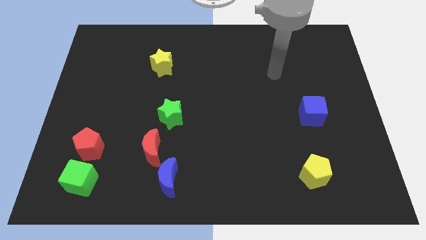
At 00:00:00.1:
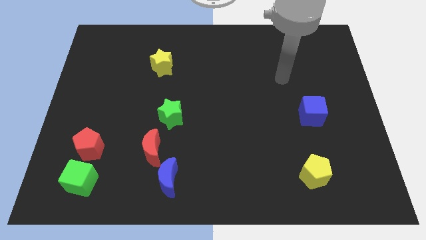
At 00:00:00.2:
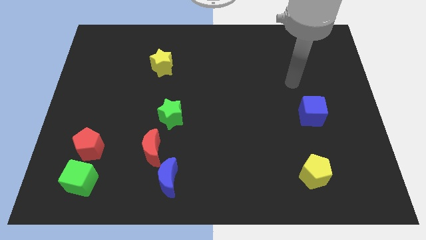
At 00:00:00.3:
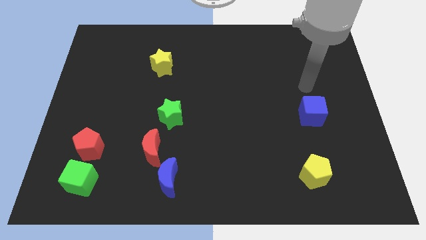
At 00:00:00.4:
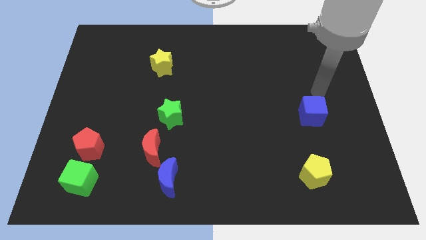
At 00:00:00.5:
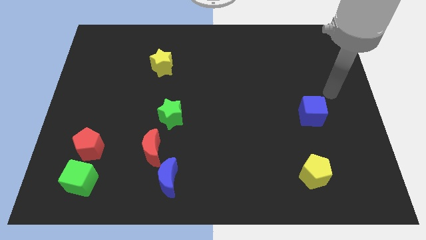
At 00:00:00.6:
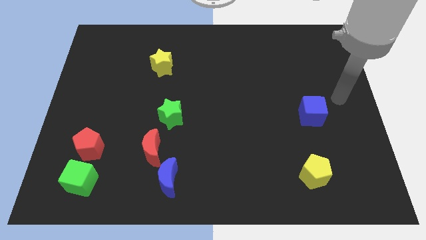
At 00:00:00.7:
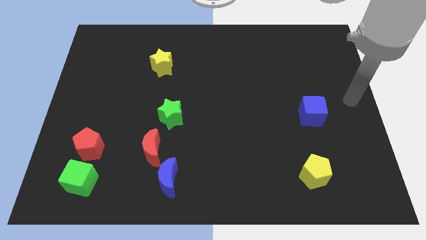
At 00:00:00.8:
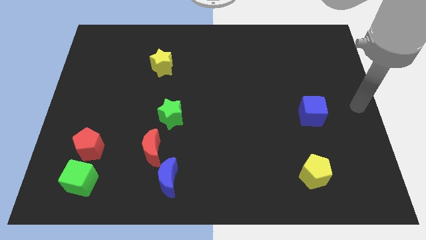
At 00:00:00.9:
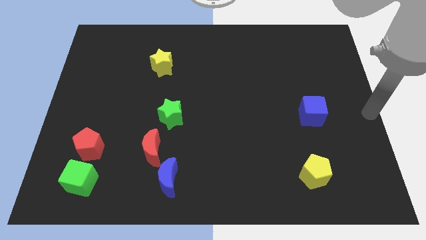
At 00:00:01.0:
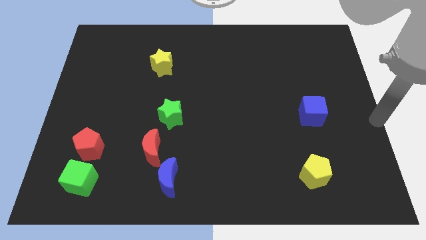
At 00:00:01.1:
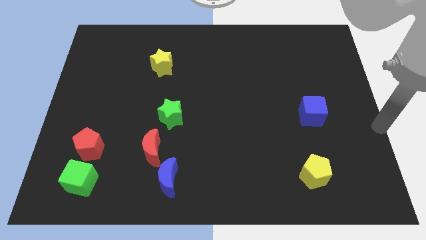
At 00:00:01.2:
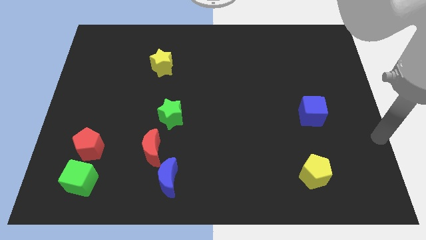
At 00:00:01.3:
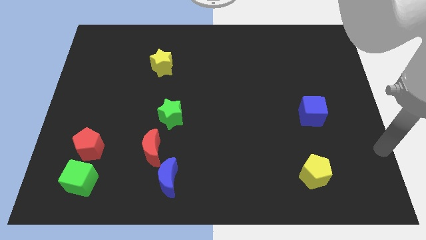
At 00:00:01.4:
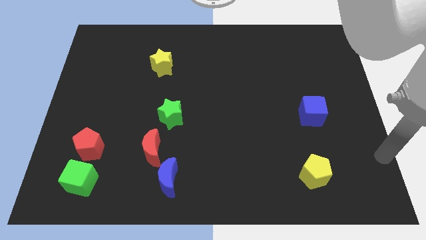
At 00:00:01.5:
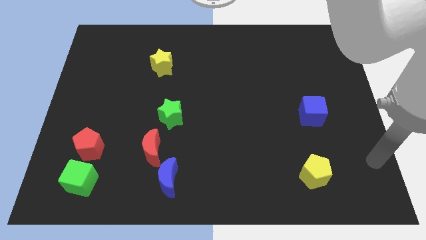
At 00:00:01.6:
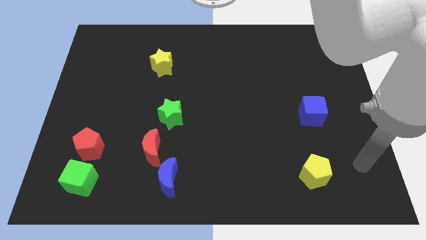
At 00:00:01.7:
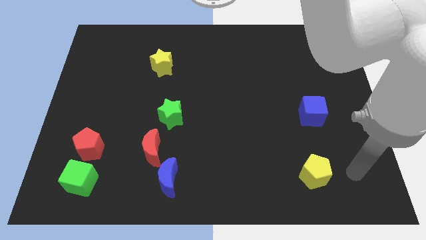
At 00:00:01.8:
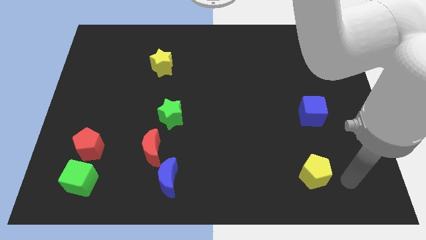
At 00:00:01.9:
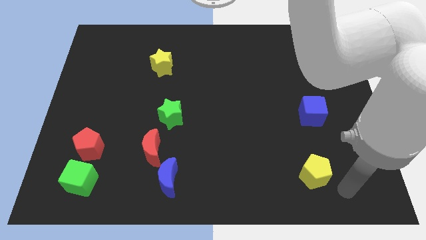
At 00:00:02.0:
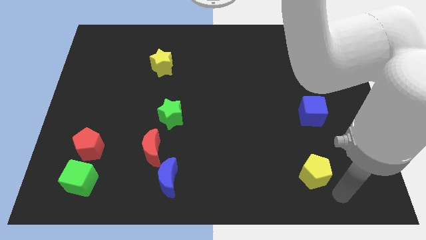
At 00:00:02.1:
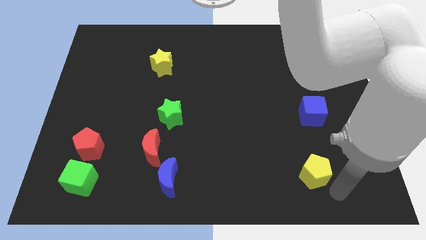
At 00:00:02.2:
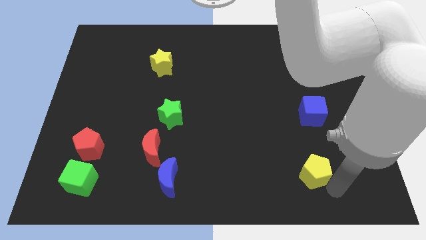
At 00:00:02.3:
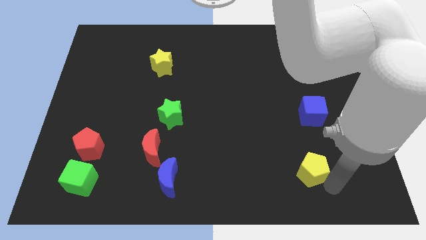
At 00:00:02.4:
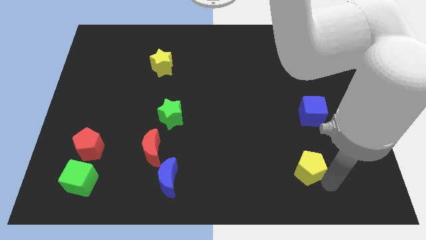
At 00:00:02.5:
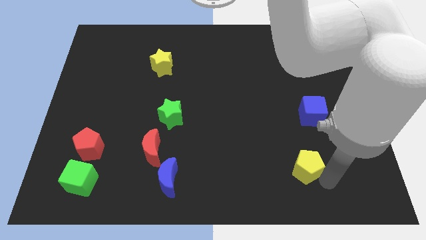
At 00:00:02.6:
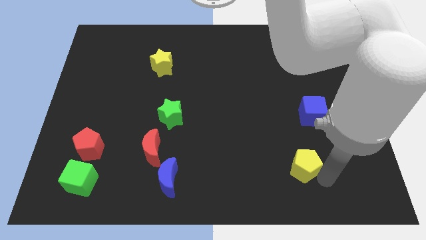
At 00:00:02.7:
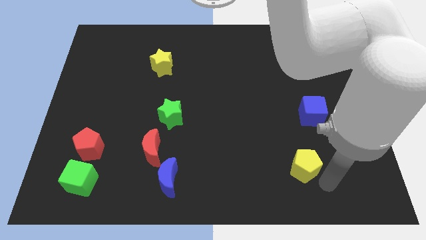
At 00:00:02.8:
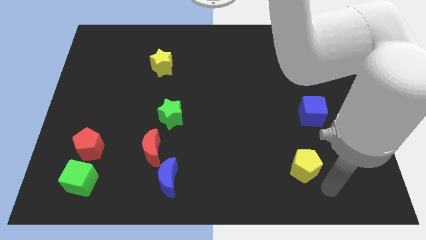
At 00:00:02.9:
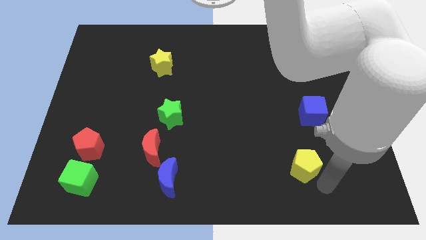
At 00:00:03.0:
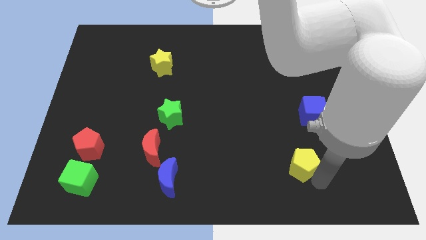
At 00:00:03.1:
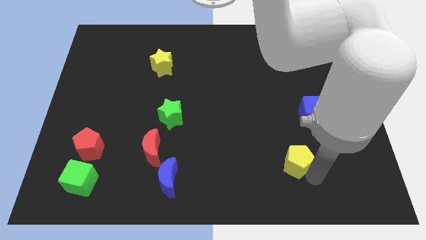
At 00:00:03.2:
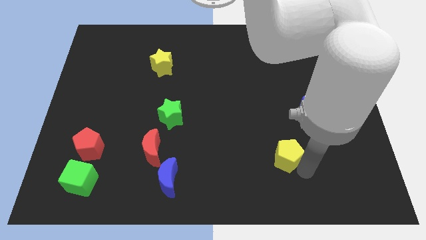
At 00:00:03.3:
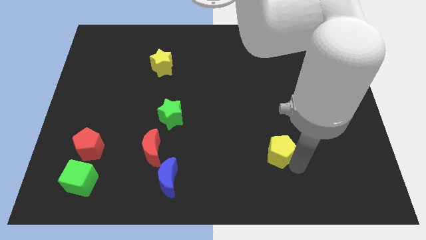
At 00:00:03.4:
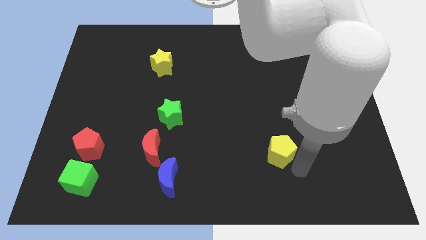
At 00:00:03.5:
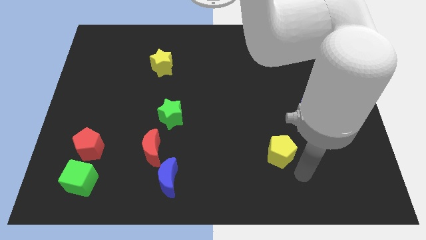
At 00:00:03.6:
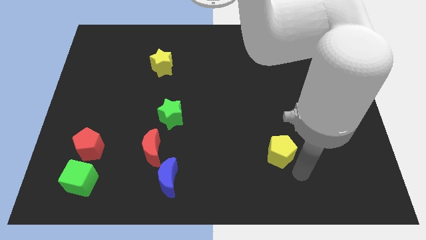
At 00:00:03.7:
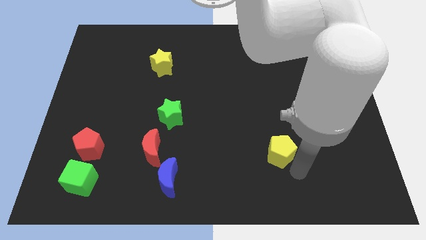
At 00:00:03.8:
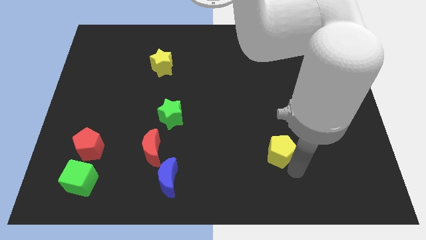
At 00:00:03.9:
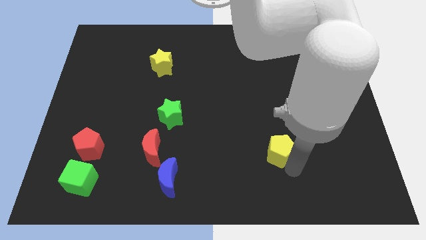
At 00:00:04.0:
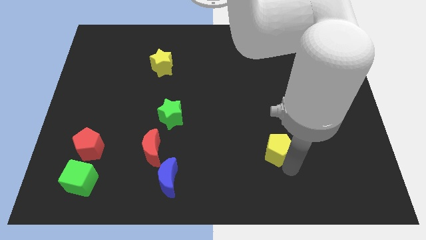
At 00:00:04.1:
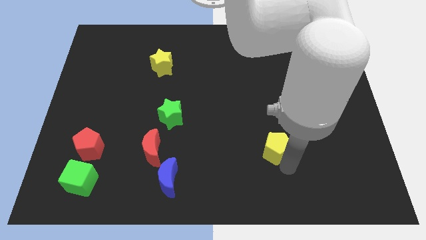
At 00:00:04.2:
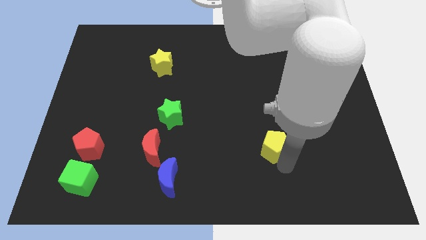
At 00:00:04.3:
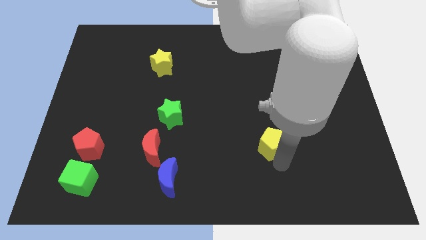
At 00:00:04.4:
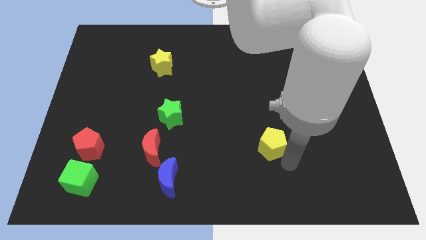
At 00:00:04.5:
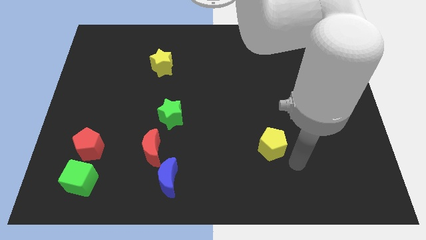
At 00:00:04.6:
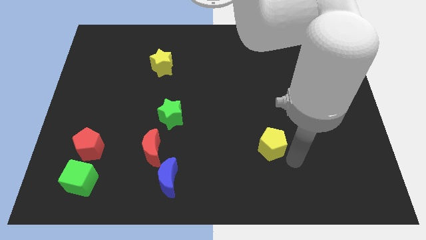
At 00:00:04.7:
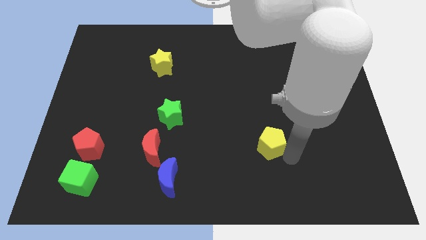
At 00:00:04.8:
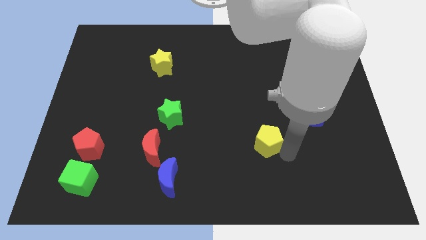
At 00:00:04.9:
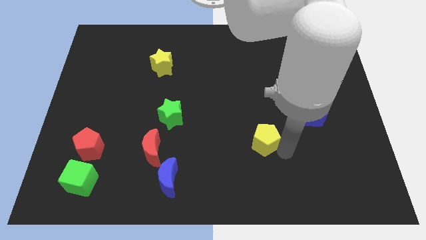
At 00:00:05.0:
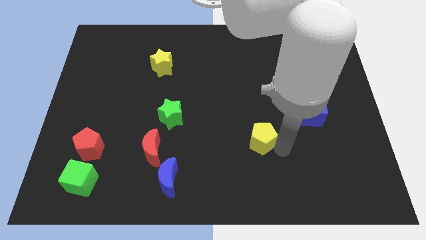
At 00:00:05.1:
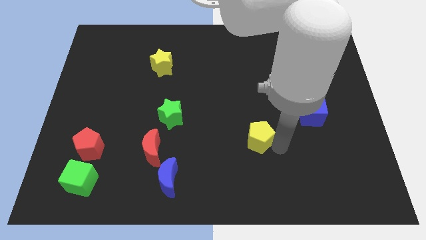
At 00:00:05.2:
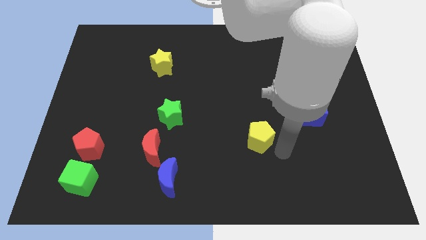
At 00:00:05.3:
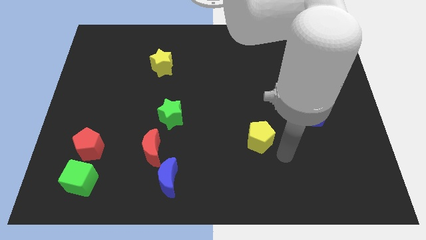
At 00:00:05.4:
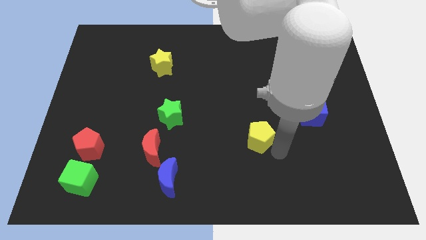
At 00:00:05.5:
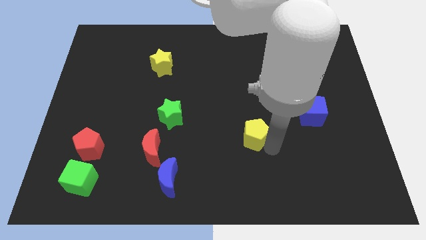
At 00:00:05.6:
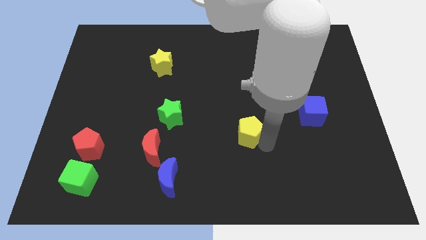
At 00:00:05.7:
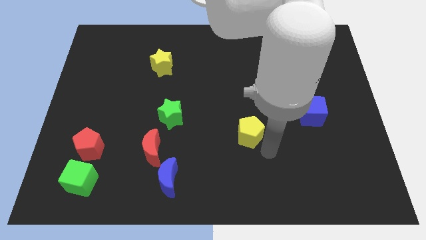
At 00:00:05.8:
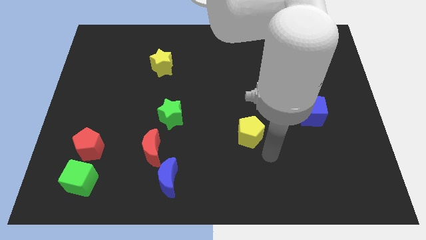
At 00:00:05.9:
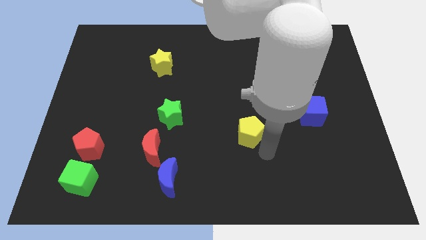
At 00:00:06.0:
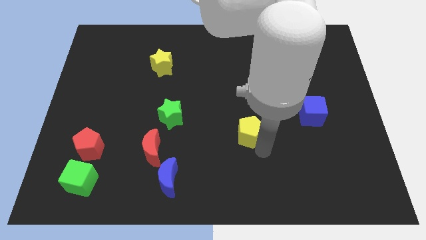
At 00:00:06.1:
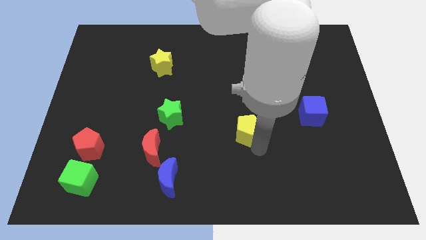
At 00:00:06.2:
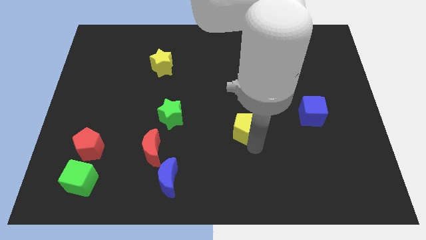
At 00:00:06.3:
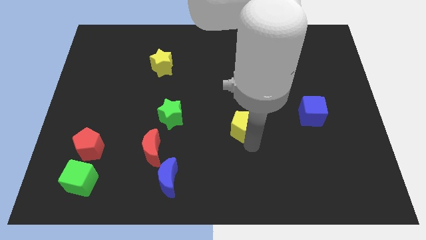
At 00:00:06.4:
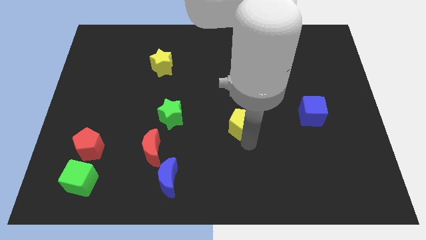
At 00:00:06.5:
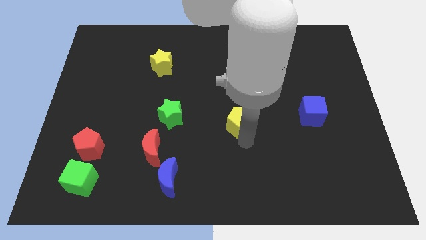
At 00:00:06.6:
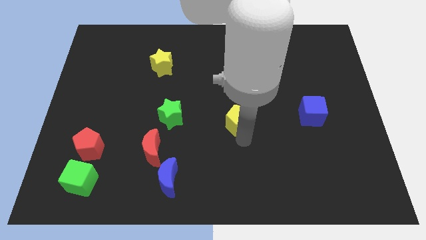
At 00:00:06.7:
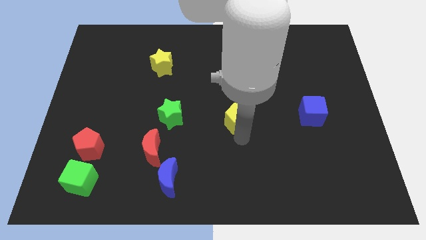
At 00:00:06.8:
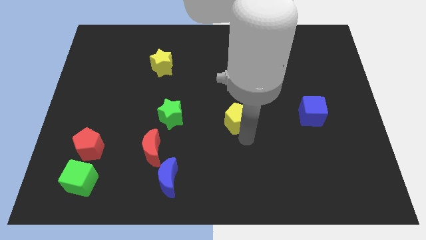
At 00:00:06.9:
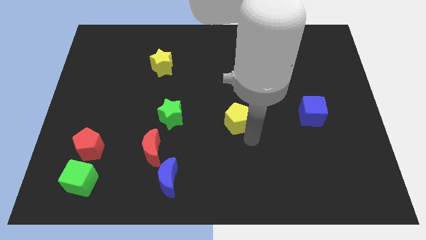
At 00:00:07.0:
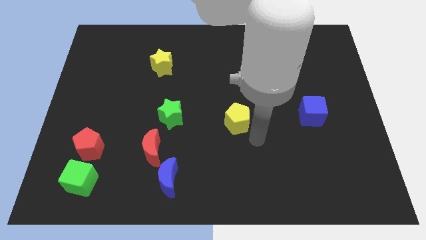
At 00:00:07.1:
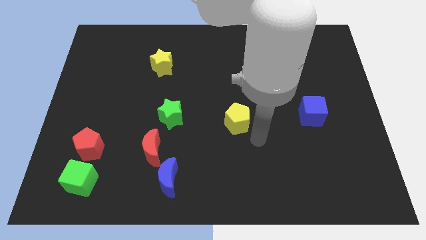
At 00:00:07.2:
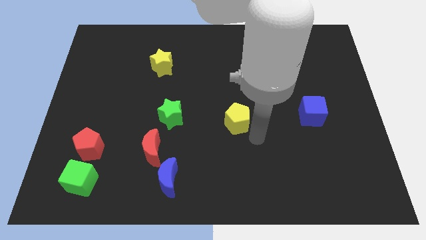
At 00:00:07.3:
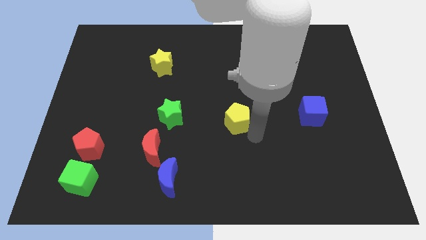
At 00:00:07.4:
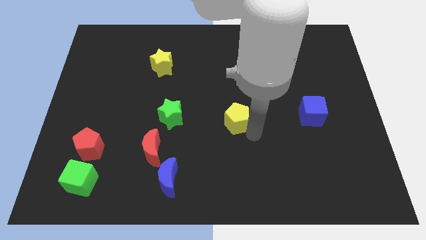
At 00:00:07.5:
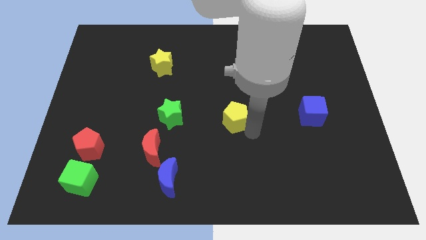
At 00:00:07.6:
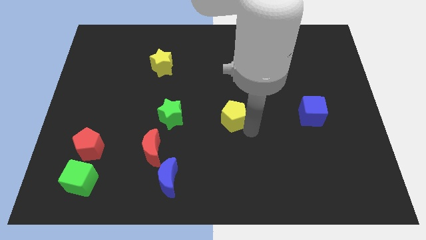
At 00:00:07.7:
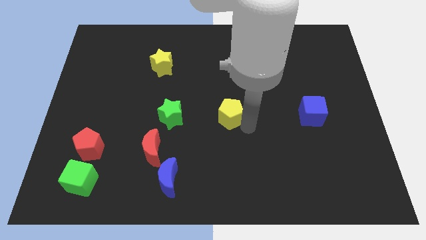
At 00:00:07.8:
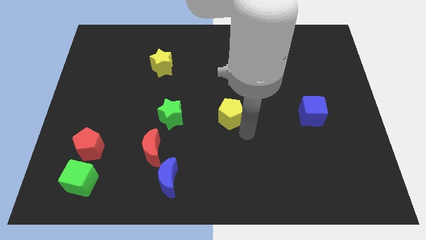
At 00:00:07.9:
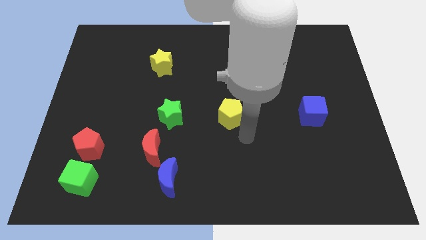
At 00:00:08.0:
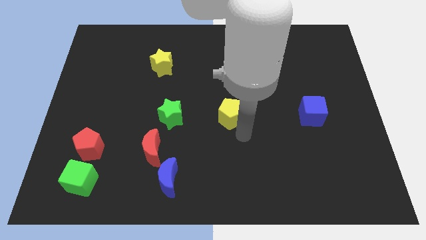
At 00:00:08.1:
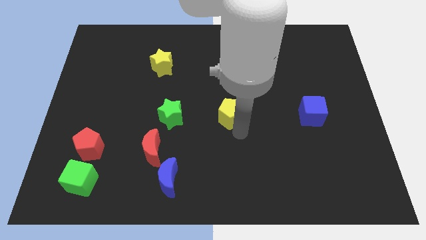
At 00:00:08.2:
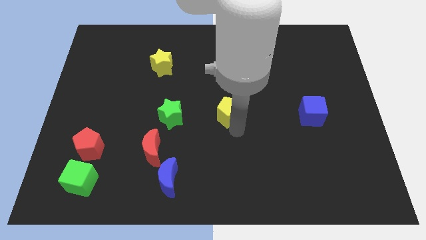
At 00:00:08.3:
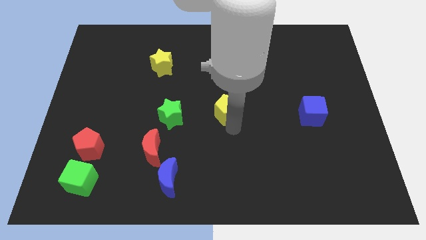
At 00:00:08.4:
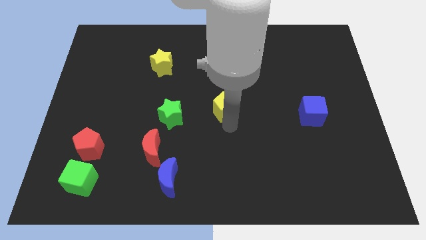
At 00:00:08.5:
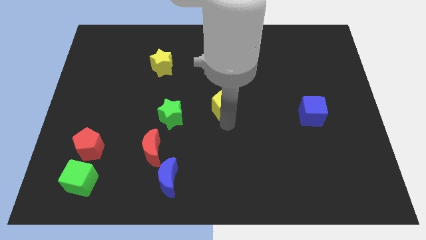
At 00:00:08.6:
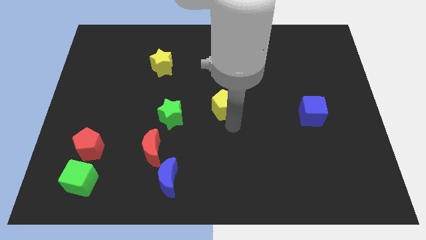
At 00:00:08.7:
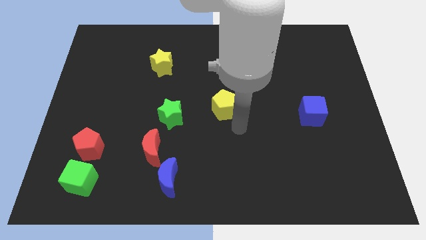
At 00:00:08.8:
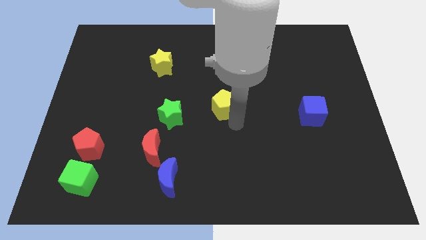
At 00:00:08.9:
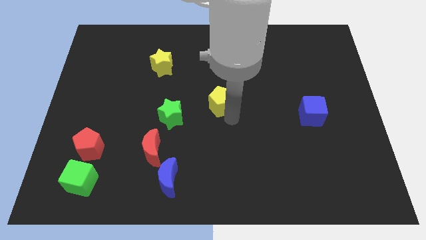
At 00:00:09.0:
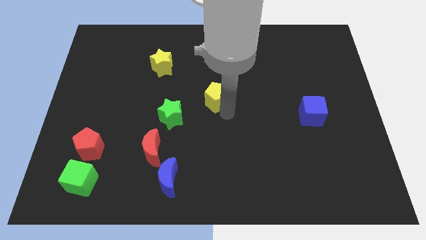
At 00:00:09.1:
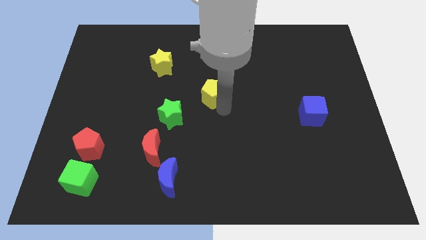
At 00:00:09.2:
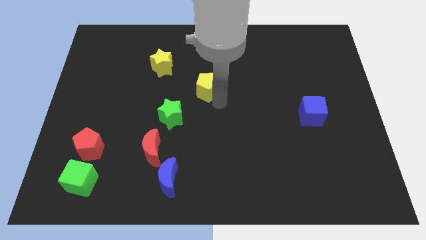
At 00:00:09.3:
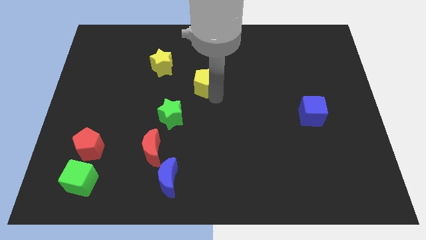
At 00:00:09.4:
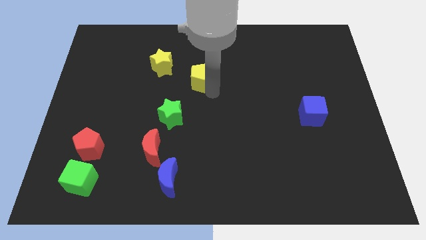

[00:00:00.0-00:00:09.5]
put the yellow pentagon to the bottom right side of the yellow star
